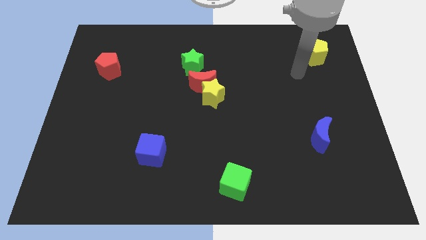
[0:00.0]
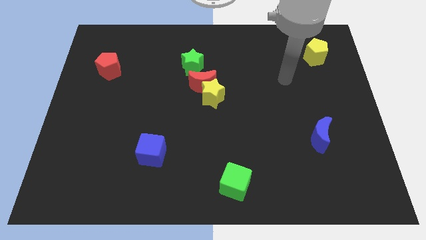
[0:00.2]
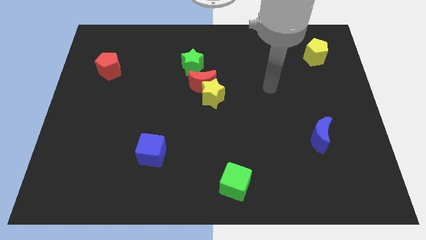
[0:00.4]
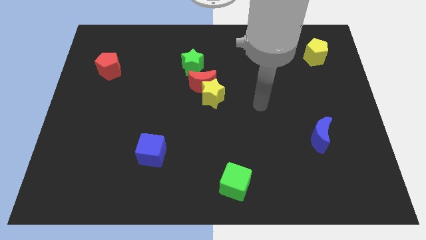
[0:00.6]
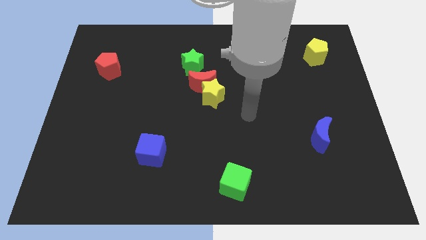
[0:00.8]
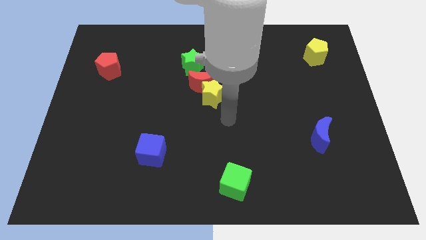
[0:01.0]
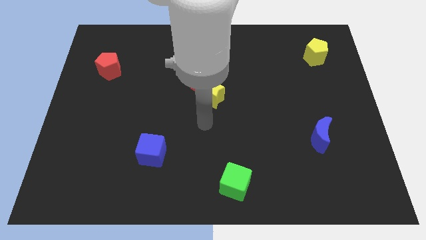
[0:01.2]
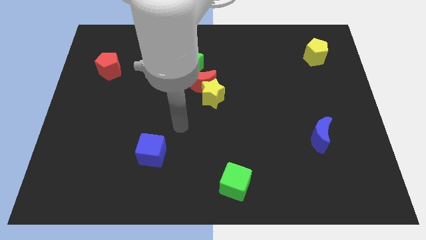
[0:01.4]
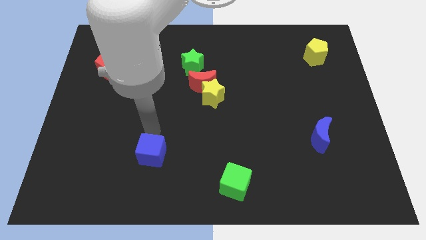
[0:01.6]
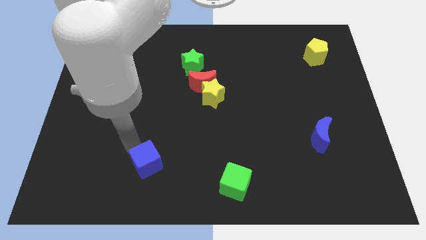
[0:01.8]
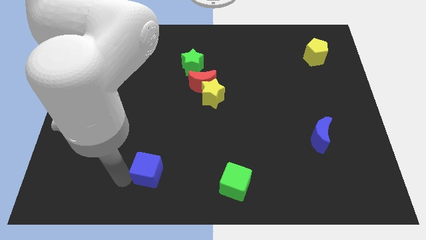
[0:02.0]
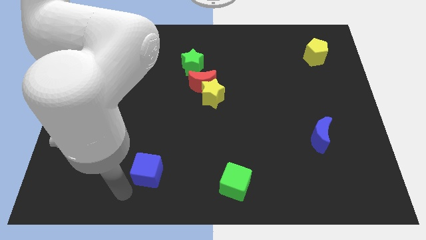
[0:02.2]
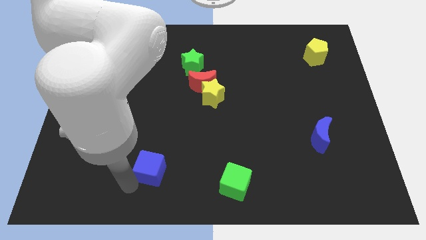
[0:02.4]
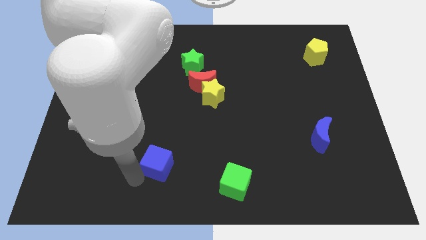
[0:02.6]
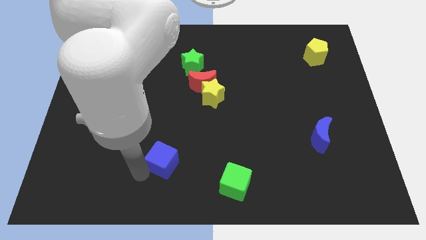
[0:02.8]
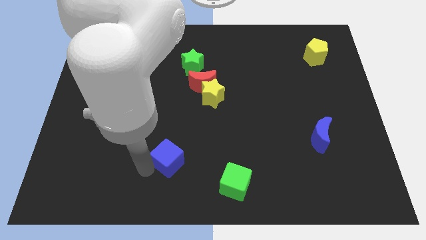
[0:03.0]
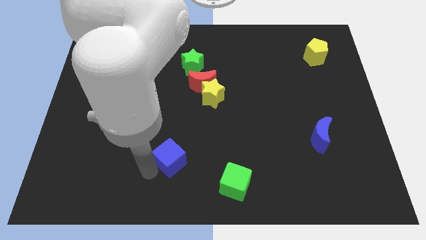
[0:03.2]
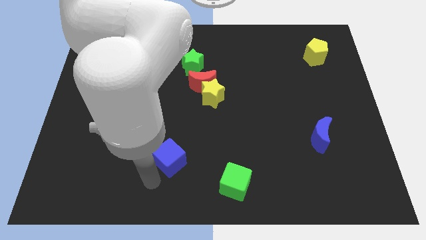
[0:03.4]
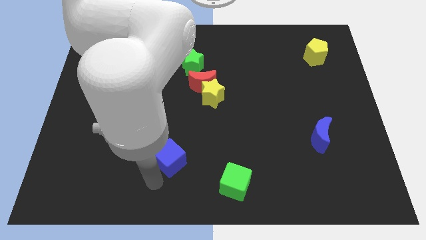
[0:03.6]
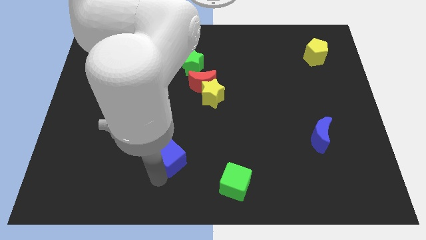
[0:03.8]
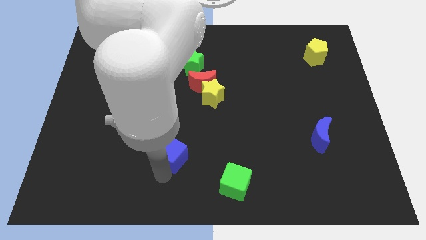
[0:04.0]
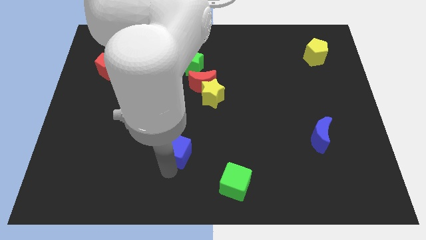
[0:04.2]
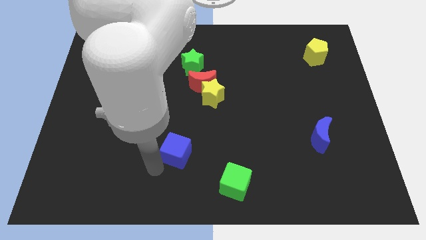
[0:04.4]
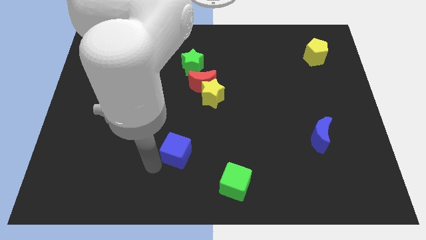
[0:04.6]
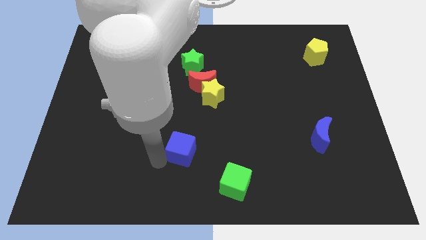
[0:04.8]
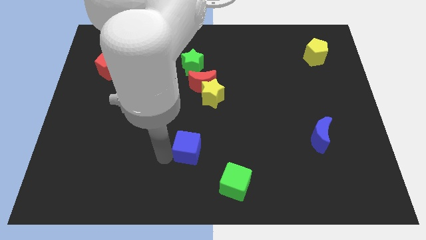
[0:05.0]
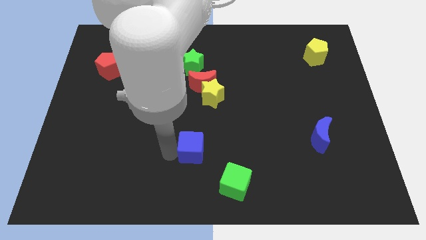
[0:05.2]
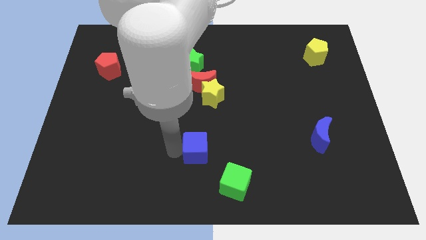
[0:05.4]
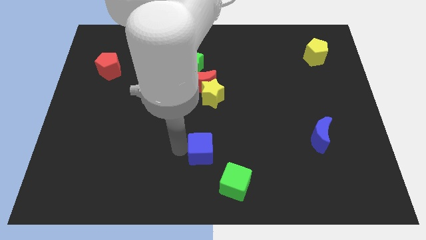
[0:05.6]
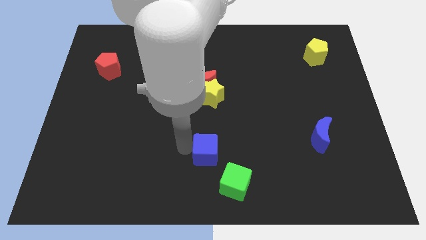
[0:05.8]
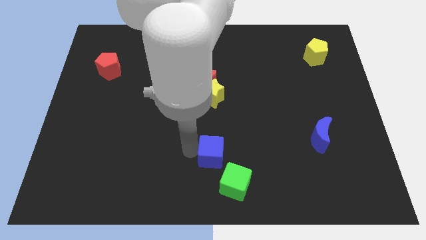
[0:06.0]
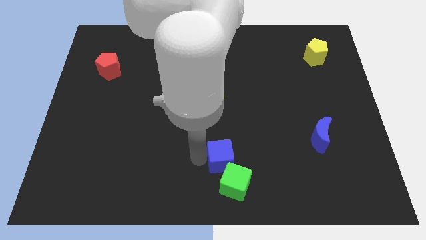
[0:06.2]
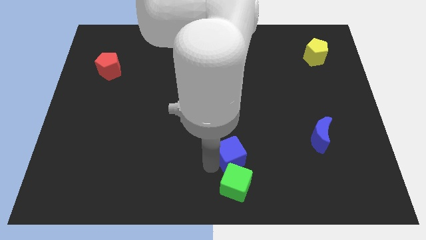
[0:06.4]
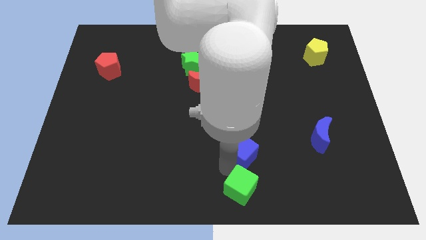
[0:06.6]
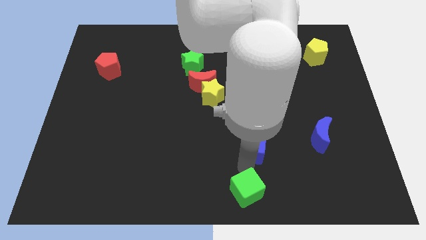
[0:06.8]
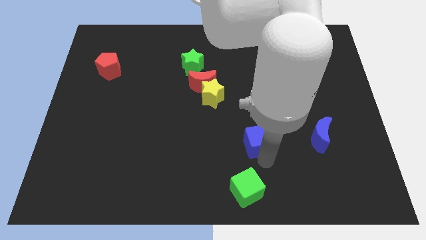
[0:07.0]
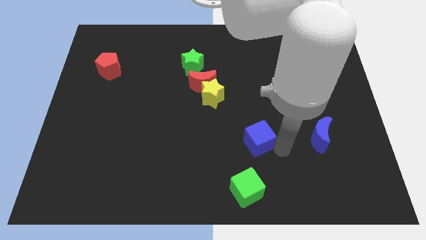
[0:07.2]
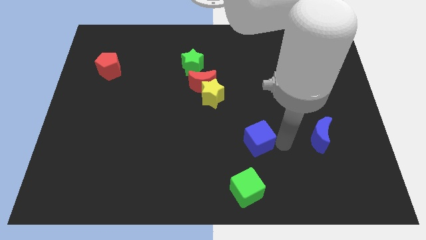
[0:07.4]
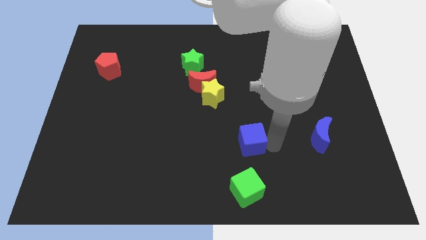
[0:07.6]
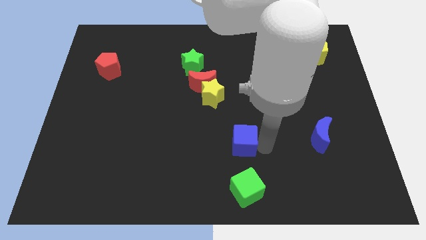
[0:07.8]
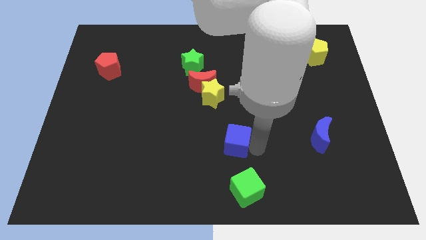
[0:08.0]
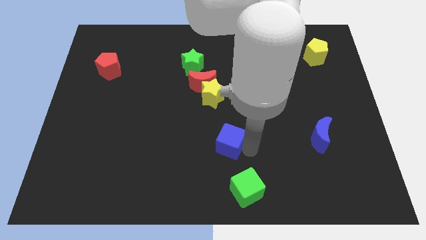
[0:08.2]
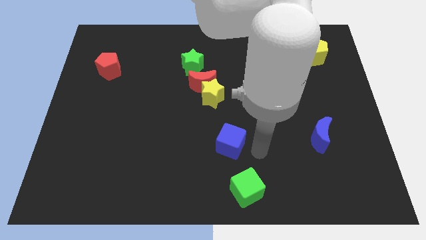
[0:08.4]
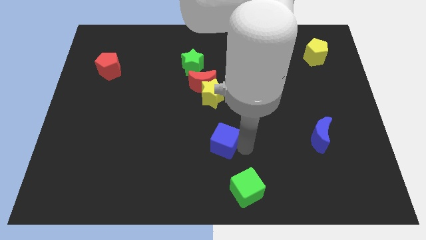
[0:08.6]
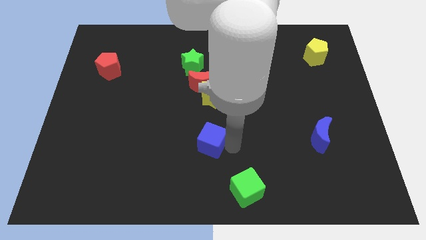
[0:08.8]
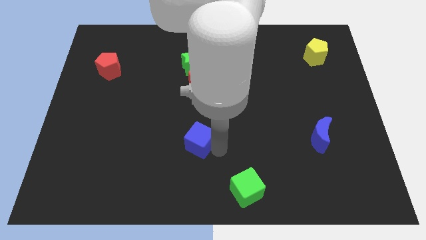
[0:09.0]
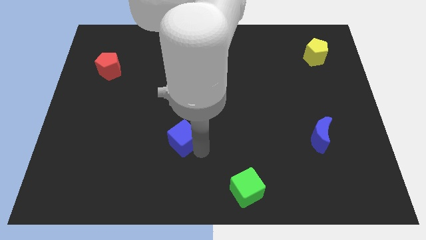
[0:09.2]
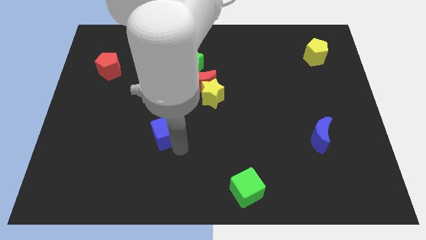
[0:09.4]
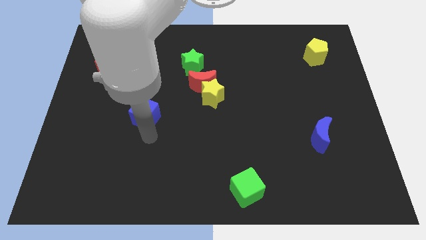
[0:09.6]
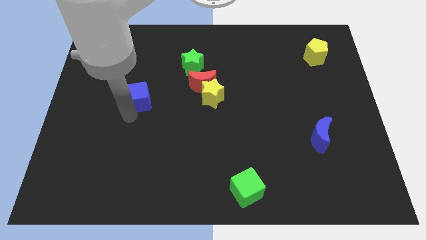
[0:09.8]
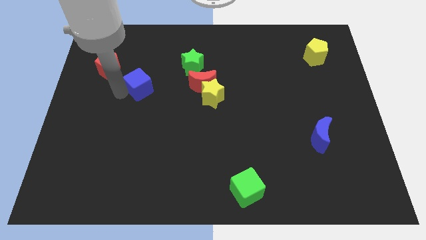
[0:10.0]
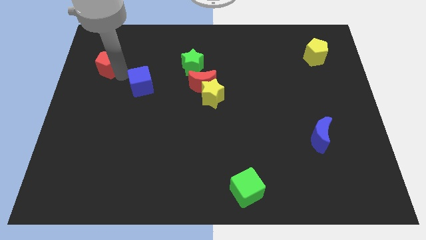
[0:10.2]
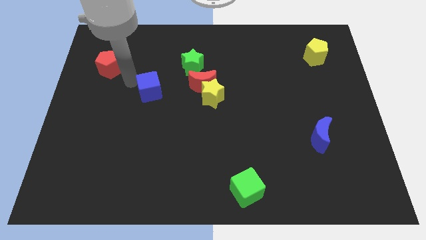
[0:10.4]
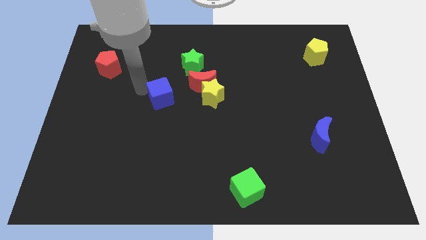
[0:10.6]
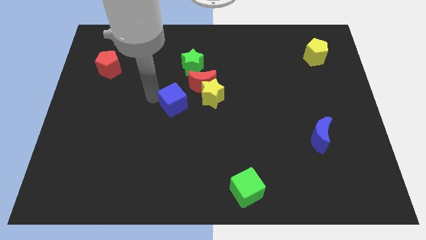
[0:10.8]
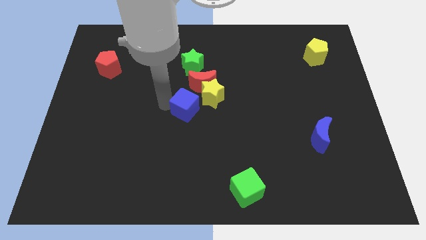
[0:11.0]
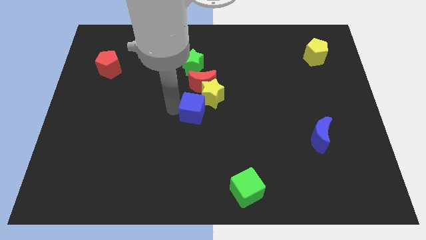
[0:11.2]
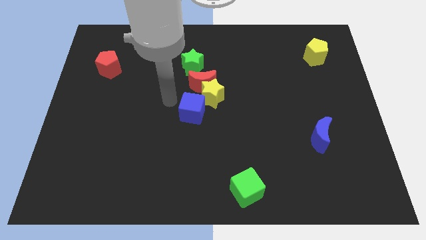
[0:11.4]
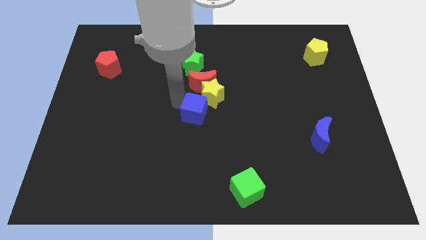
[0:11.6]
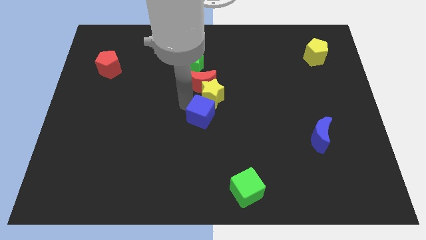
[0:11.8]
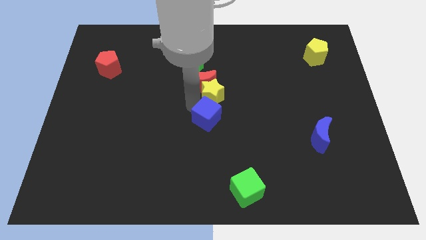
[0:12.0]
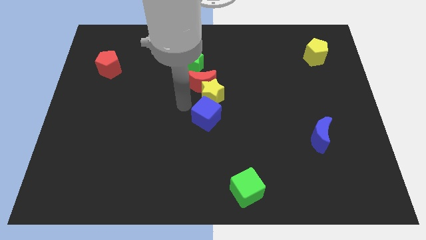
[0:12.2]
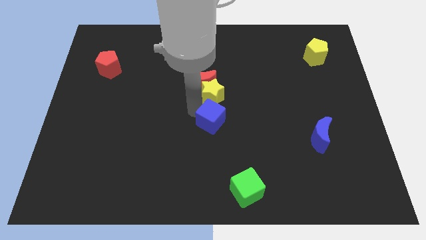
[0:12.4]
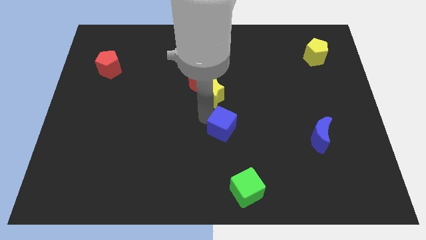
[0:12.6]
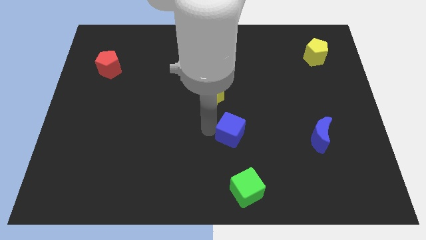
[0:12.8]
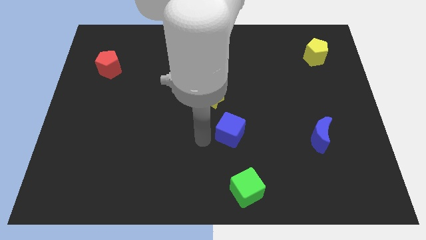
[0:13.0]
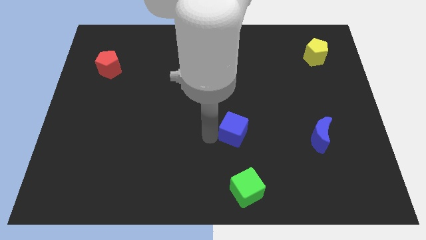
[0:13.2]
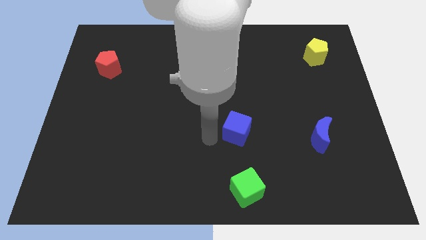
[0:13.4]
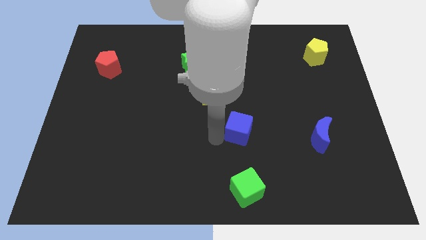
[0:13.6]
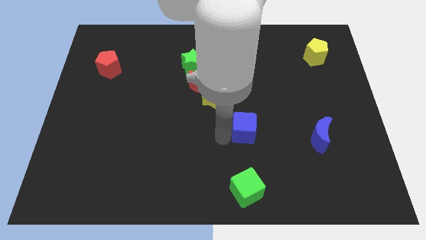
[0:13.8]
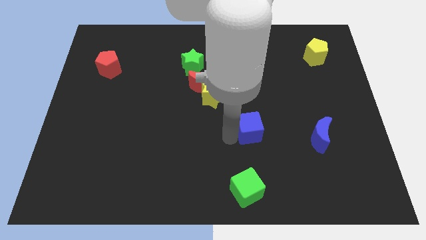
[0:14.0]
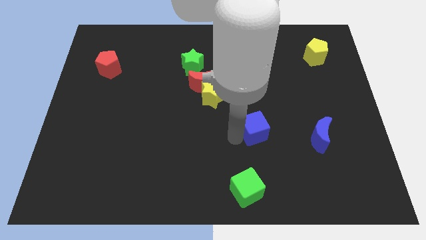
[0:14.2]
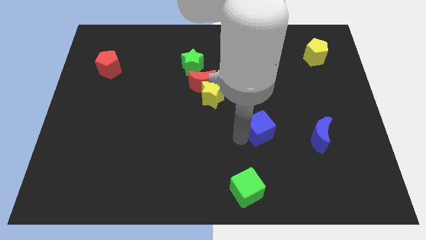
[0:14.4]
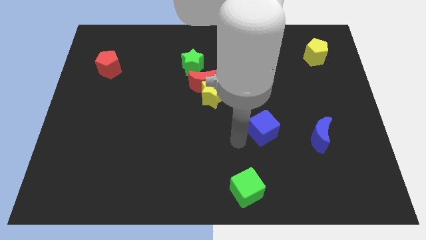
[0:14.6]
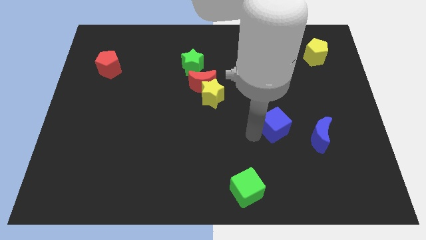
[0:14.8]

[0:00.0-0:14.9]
move the blue cube to the top left side of the blue moon
